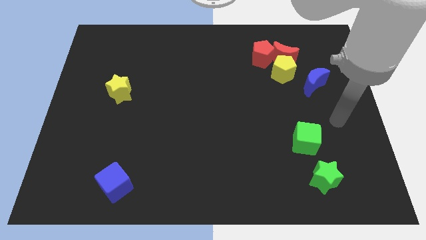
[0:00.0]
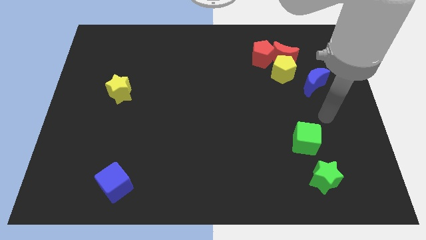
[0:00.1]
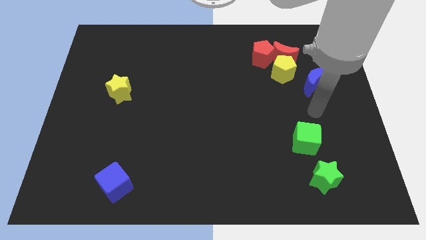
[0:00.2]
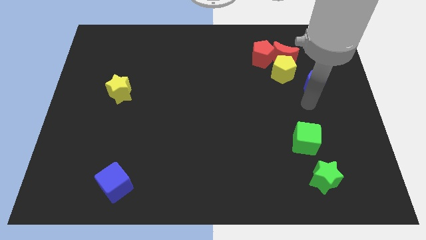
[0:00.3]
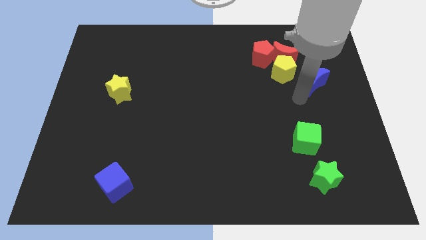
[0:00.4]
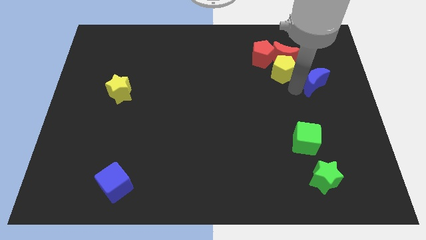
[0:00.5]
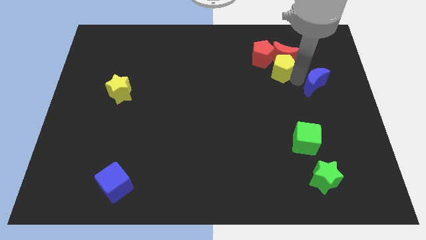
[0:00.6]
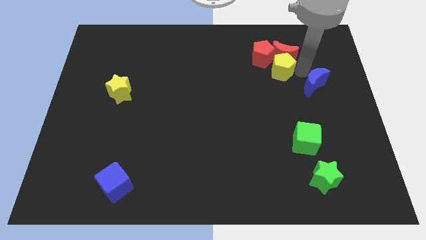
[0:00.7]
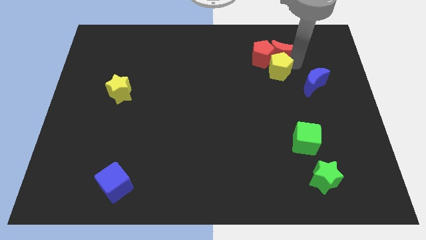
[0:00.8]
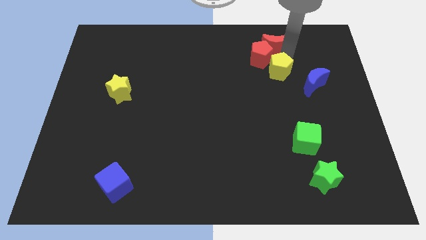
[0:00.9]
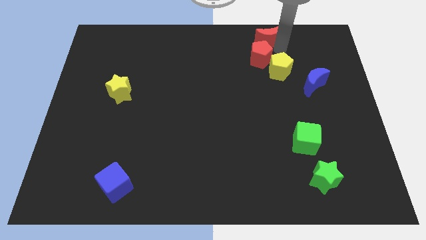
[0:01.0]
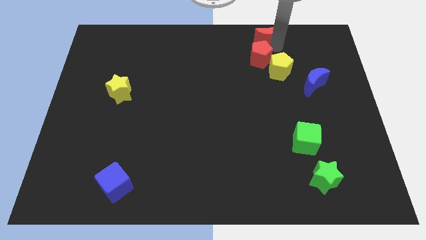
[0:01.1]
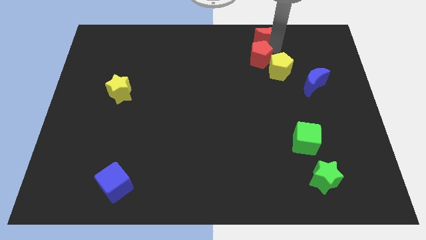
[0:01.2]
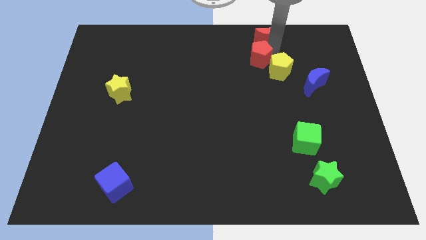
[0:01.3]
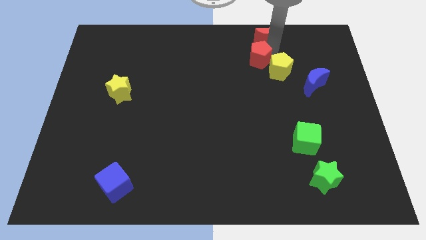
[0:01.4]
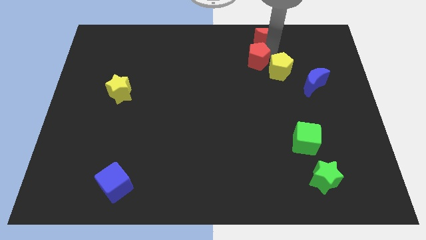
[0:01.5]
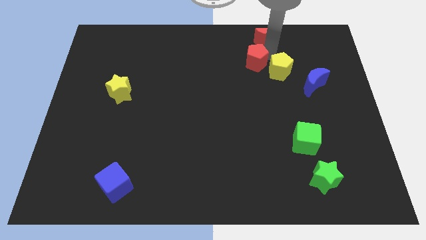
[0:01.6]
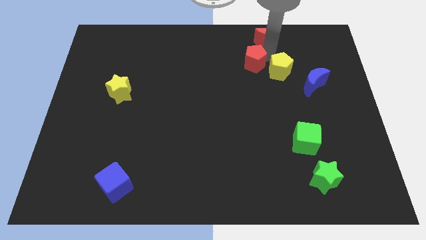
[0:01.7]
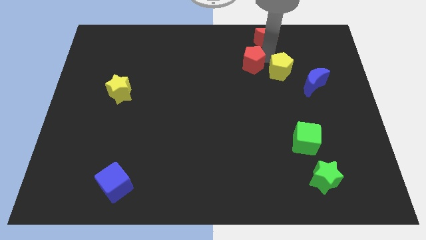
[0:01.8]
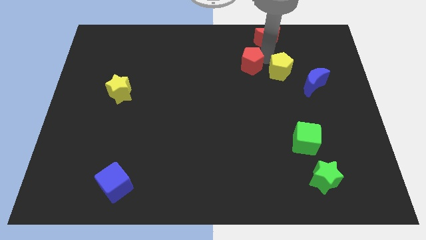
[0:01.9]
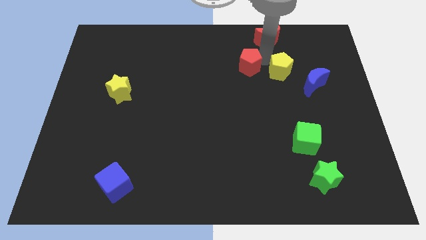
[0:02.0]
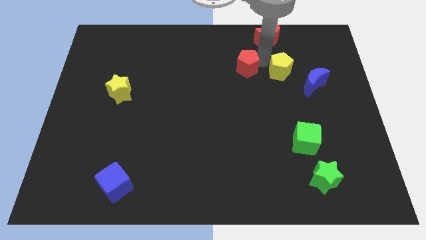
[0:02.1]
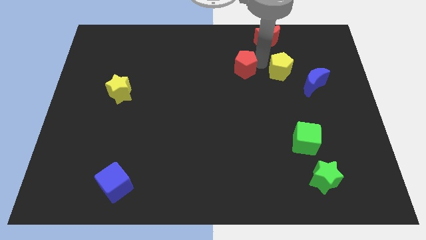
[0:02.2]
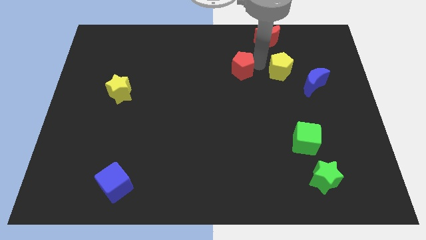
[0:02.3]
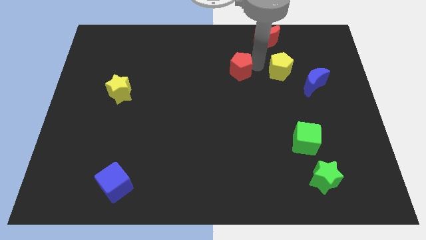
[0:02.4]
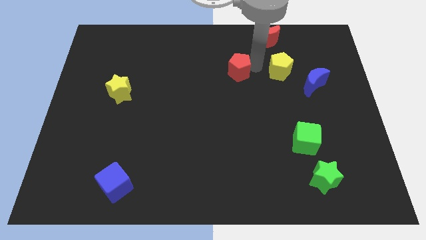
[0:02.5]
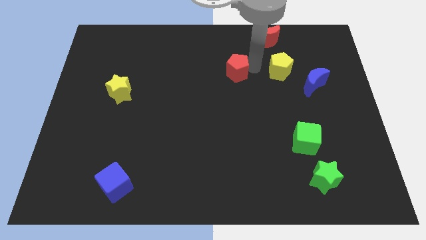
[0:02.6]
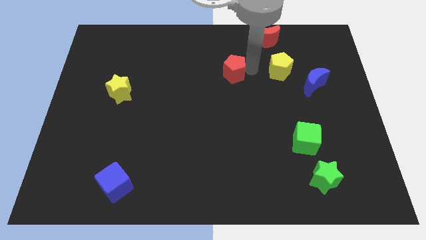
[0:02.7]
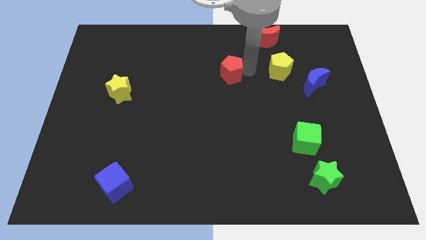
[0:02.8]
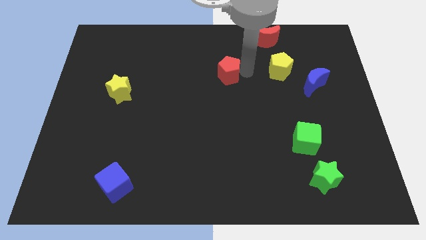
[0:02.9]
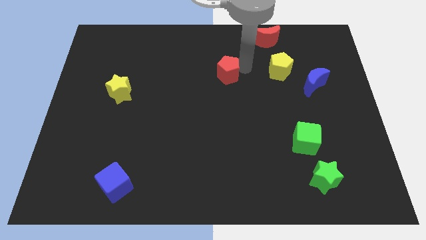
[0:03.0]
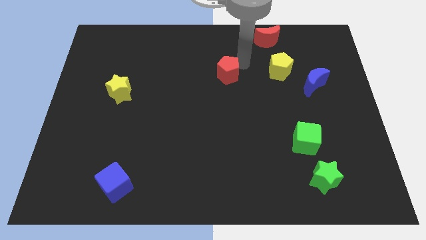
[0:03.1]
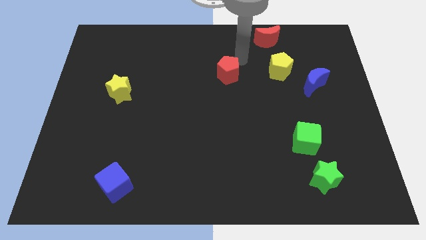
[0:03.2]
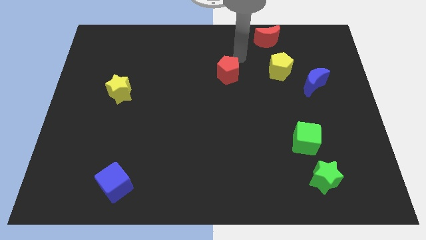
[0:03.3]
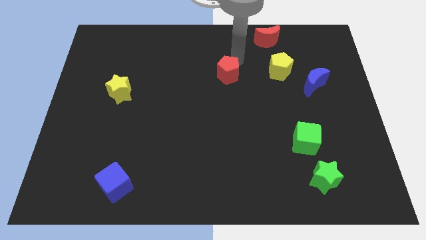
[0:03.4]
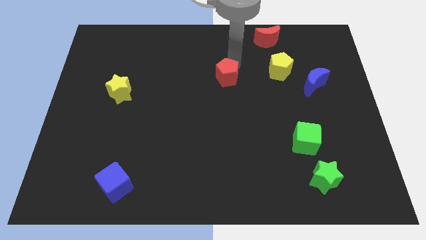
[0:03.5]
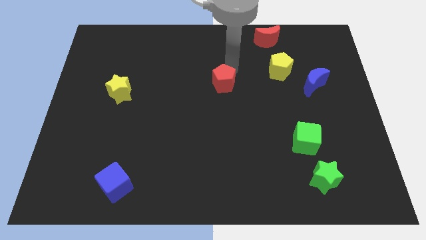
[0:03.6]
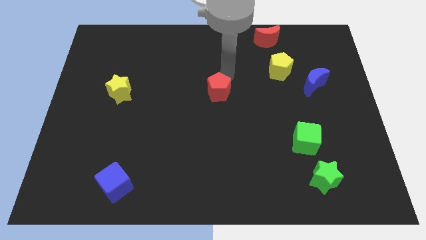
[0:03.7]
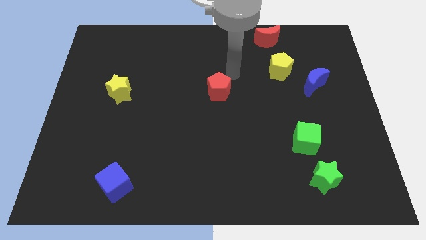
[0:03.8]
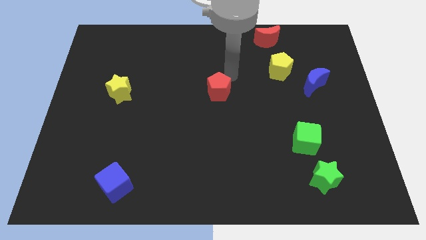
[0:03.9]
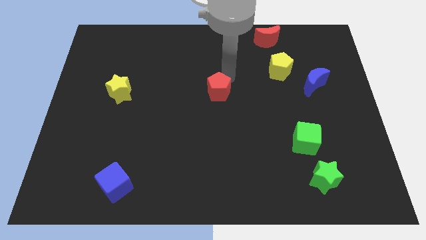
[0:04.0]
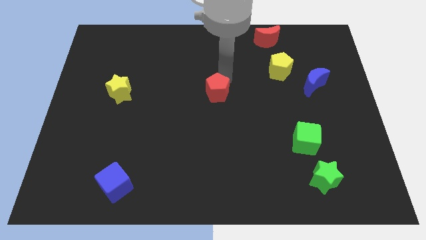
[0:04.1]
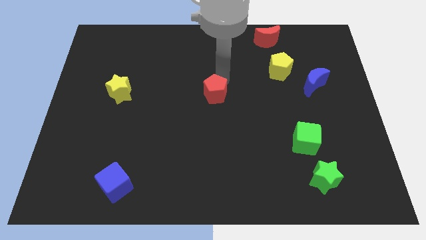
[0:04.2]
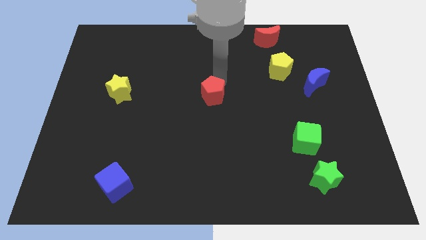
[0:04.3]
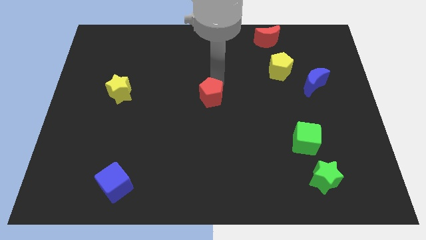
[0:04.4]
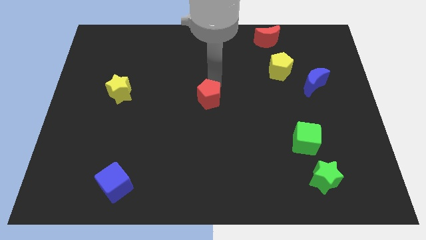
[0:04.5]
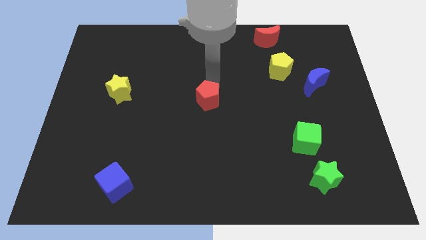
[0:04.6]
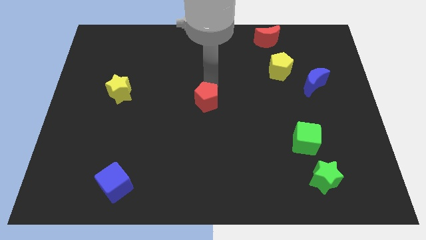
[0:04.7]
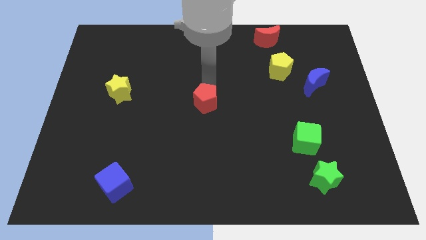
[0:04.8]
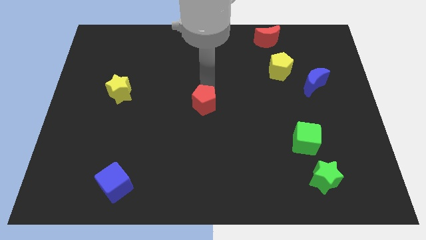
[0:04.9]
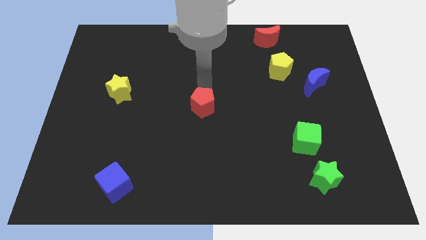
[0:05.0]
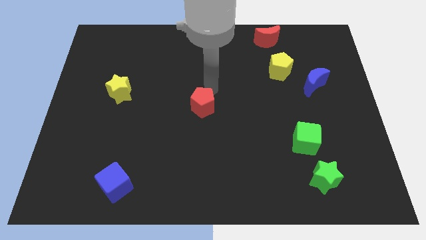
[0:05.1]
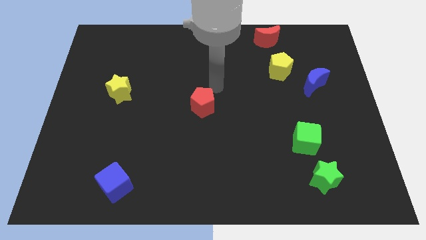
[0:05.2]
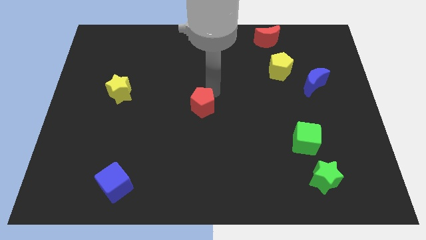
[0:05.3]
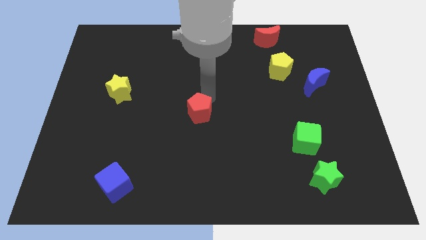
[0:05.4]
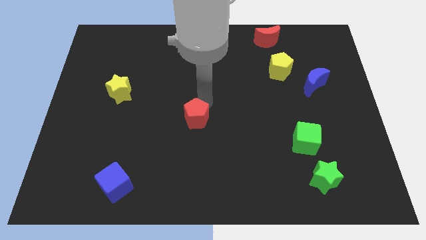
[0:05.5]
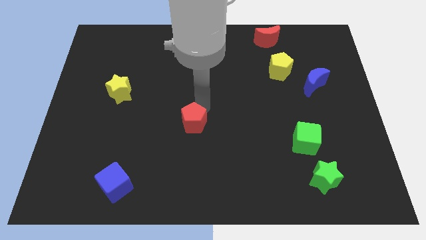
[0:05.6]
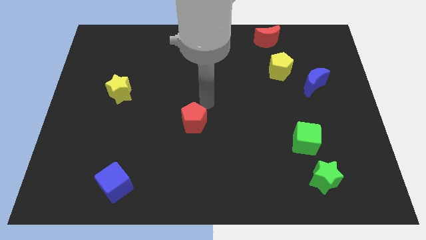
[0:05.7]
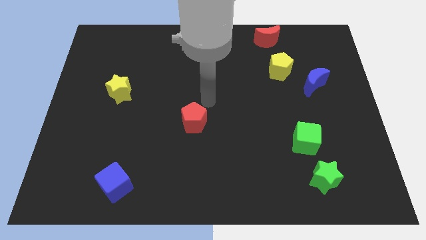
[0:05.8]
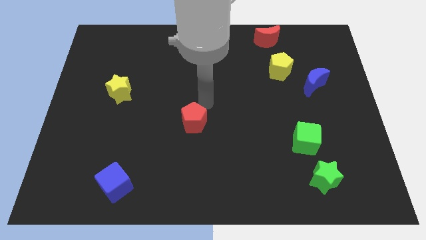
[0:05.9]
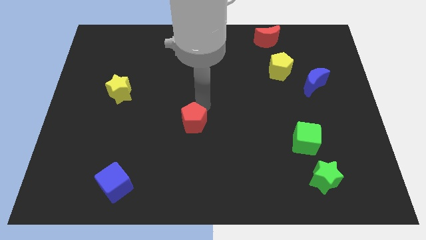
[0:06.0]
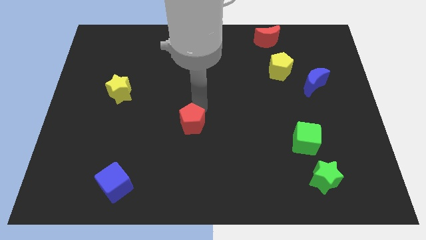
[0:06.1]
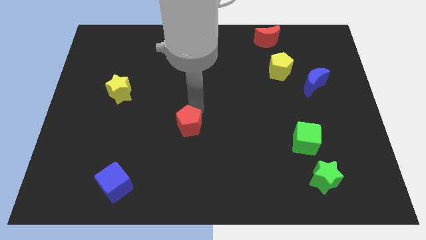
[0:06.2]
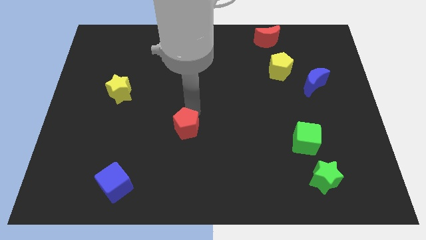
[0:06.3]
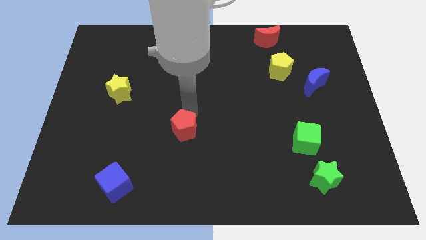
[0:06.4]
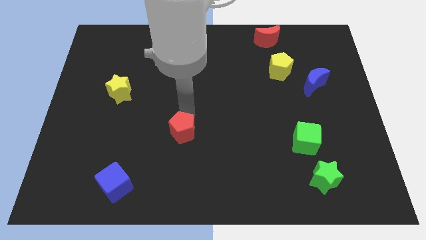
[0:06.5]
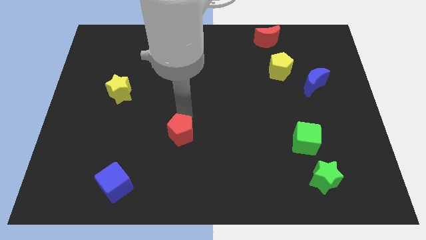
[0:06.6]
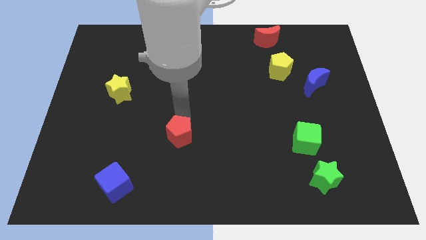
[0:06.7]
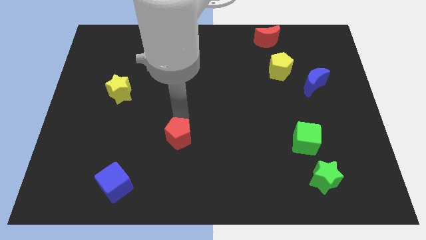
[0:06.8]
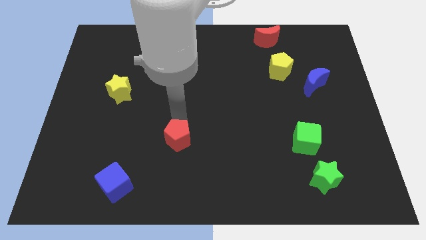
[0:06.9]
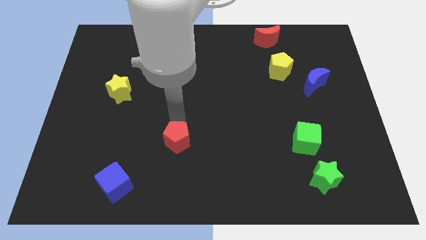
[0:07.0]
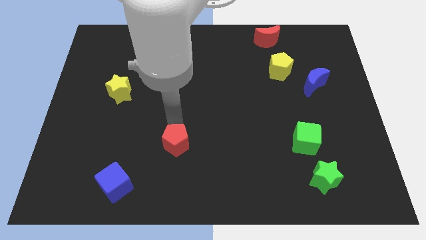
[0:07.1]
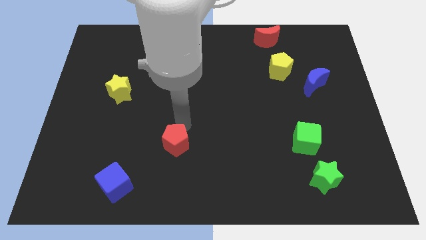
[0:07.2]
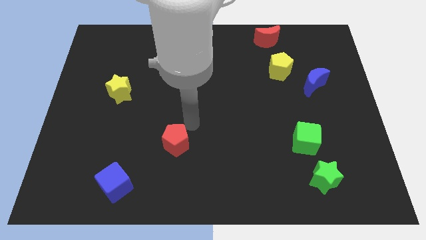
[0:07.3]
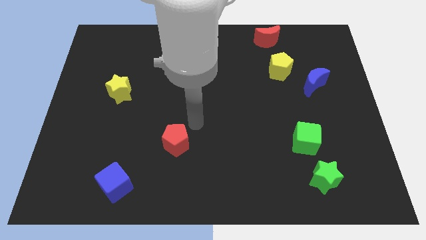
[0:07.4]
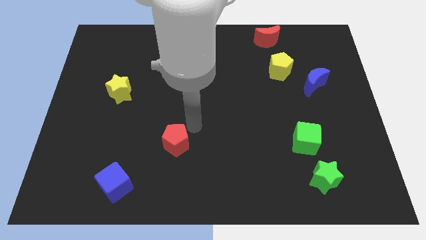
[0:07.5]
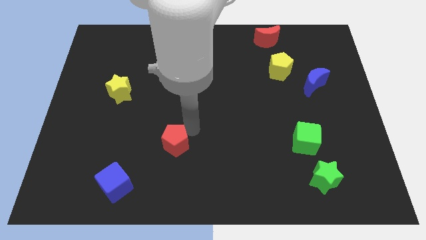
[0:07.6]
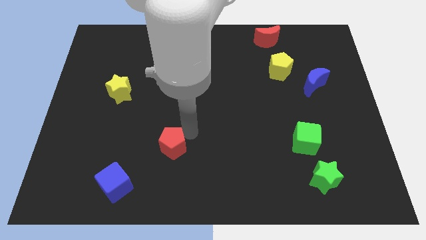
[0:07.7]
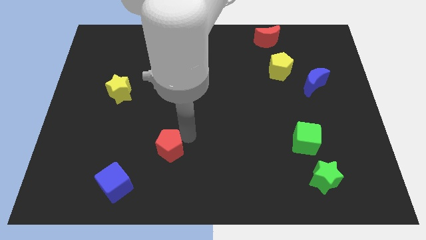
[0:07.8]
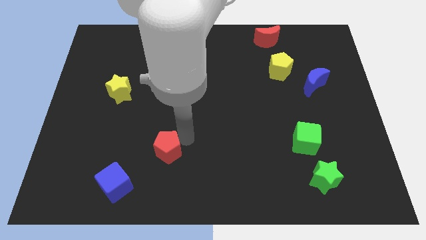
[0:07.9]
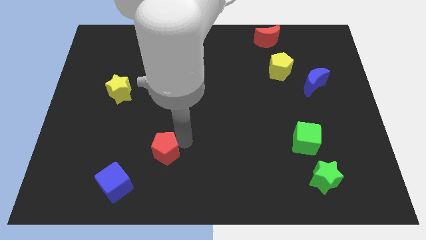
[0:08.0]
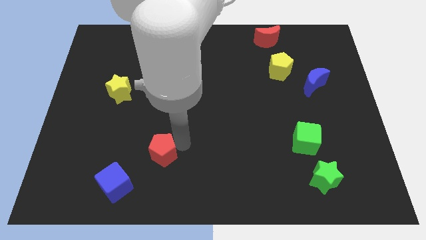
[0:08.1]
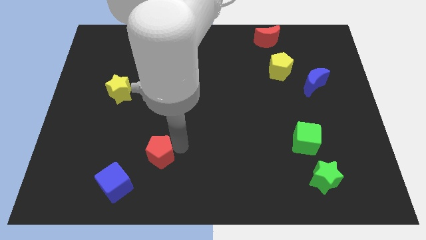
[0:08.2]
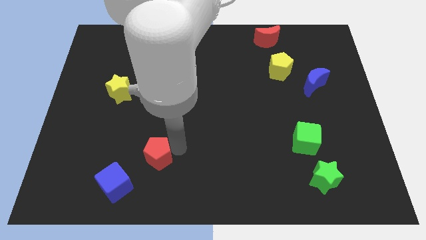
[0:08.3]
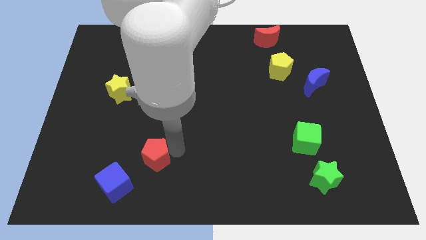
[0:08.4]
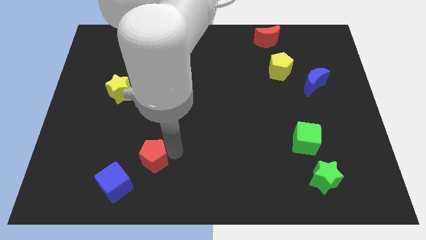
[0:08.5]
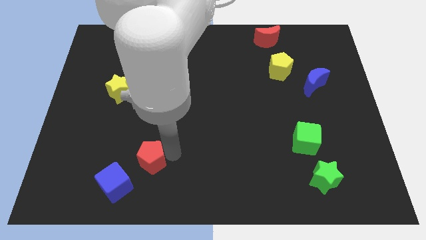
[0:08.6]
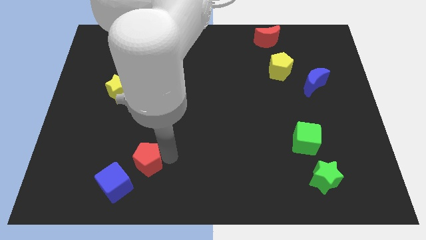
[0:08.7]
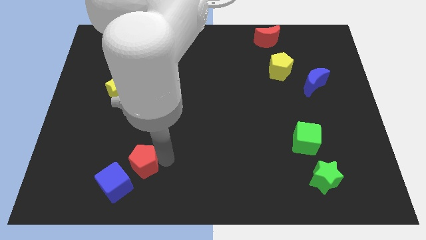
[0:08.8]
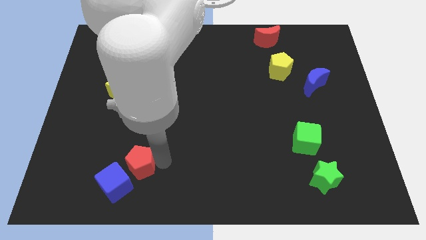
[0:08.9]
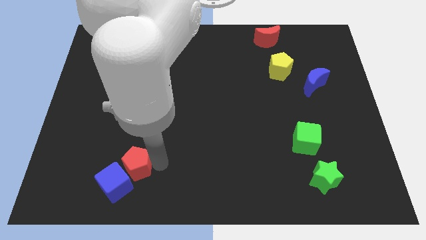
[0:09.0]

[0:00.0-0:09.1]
push the red pentagon towards the blue cube
